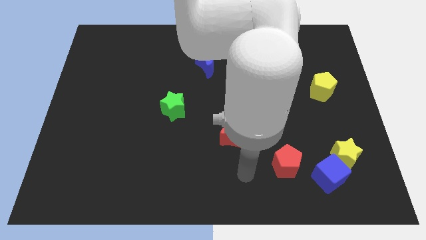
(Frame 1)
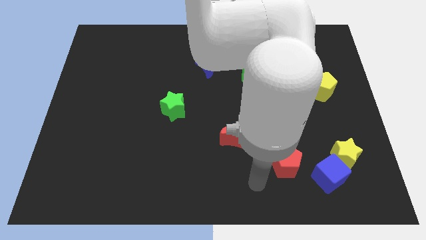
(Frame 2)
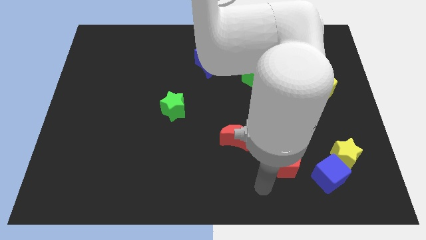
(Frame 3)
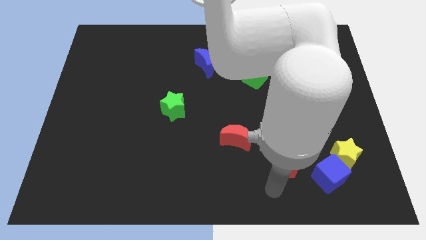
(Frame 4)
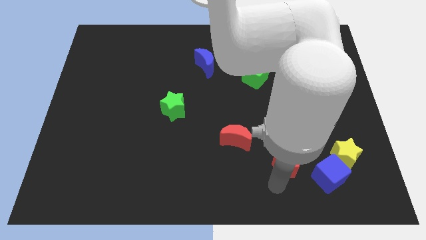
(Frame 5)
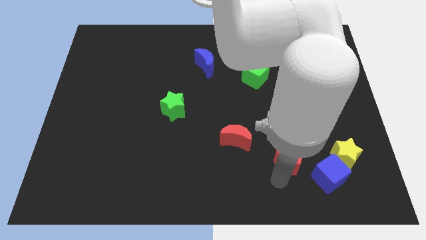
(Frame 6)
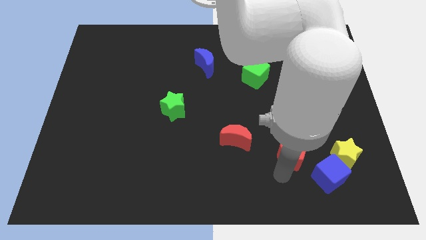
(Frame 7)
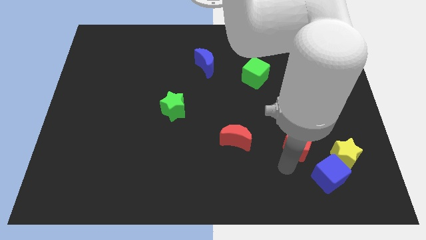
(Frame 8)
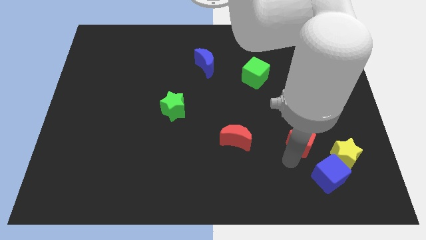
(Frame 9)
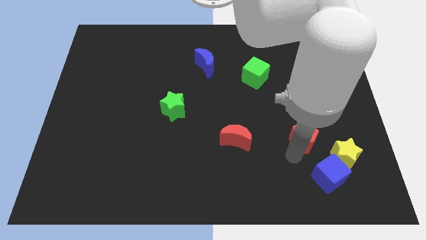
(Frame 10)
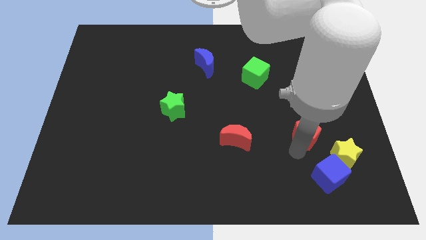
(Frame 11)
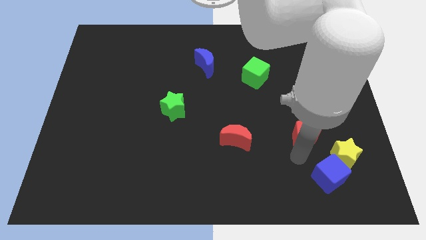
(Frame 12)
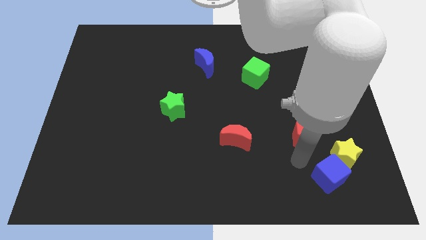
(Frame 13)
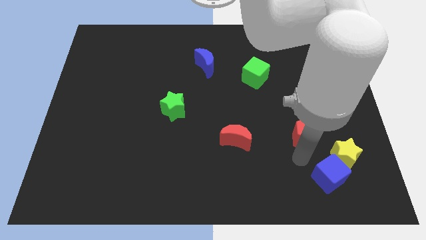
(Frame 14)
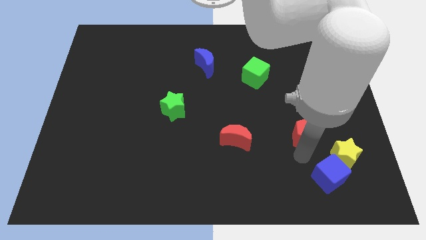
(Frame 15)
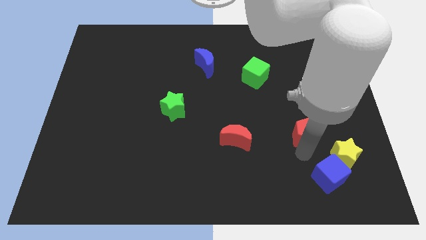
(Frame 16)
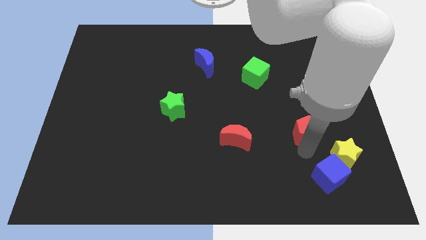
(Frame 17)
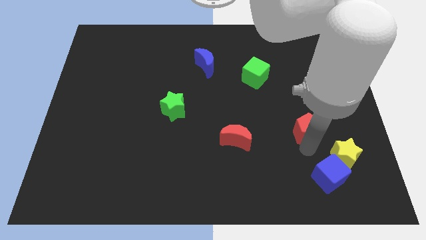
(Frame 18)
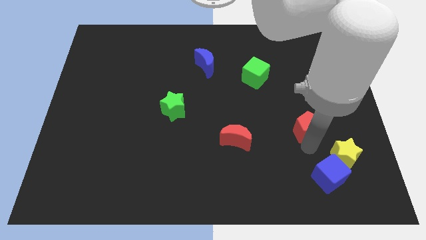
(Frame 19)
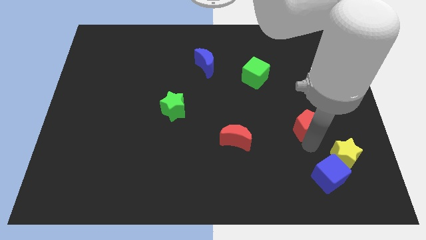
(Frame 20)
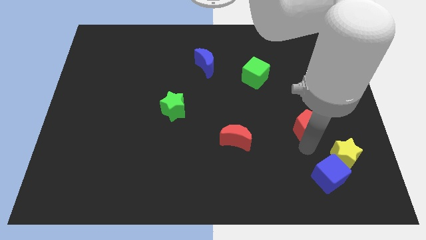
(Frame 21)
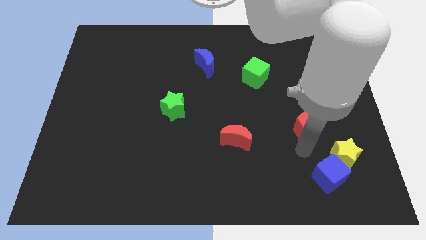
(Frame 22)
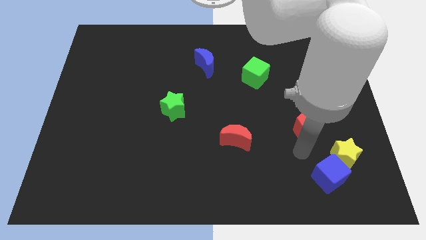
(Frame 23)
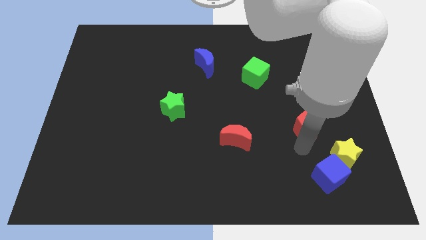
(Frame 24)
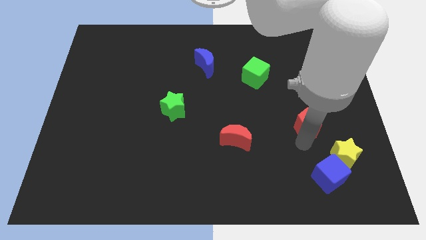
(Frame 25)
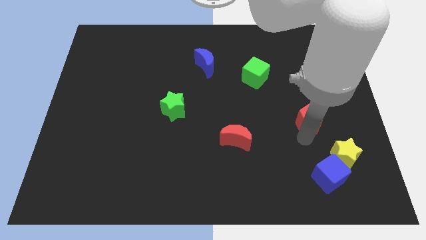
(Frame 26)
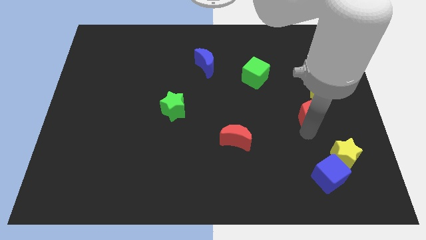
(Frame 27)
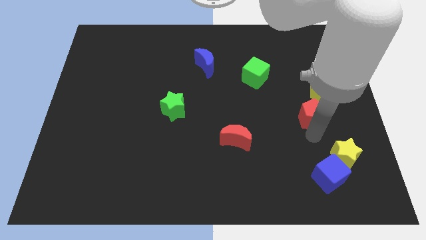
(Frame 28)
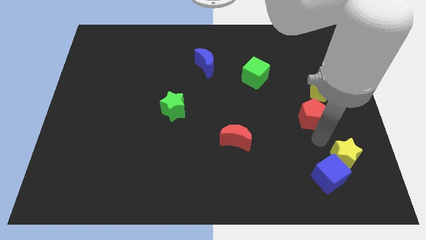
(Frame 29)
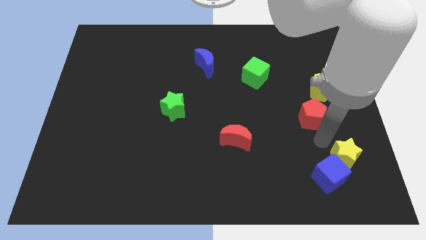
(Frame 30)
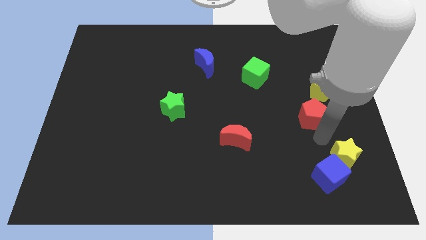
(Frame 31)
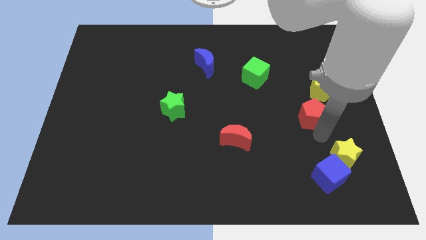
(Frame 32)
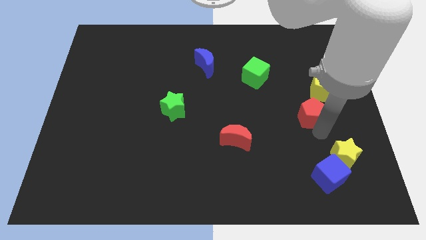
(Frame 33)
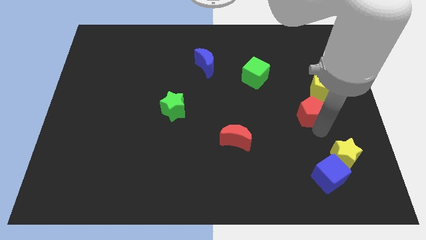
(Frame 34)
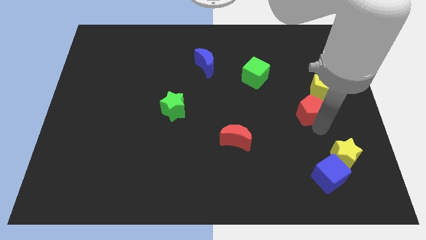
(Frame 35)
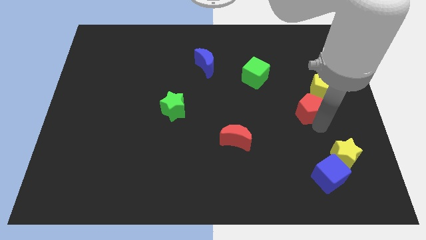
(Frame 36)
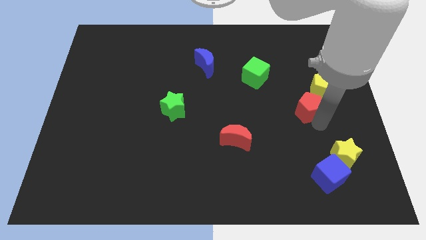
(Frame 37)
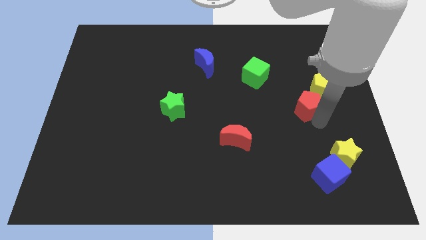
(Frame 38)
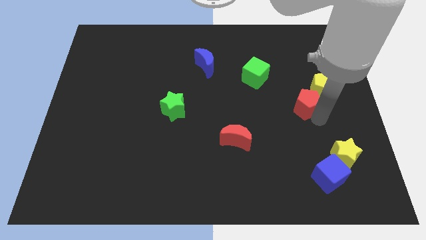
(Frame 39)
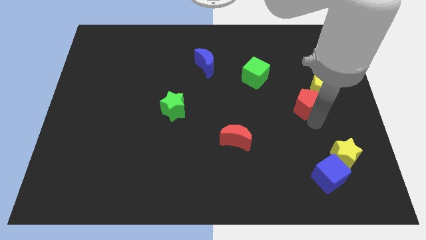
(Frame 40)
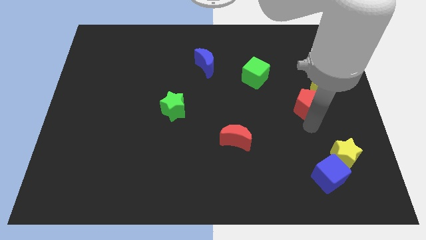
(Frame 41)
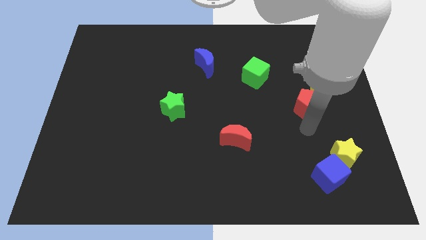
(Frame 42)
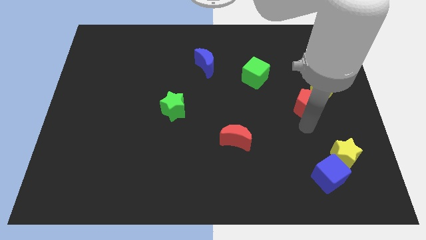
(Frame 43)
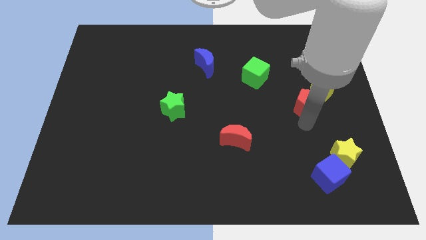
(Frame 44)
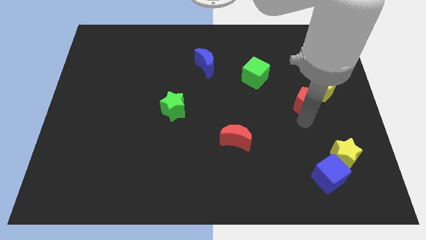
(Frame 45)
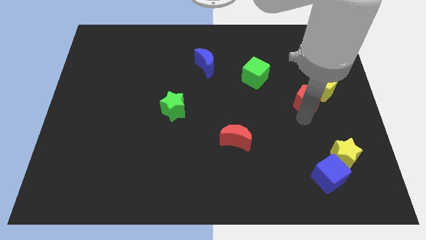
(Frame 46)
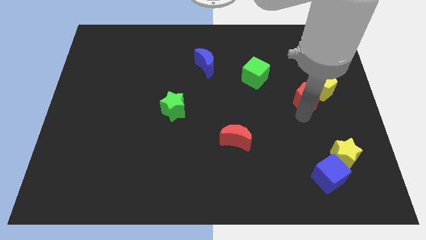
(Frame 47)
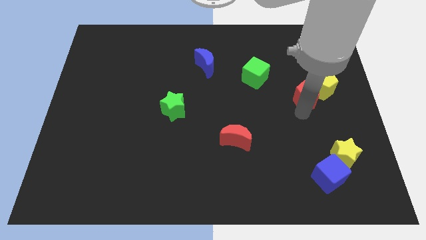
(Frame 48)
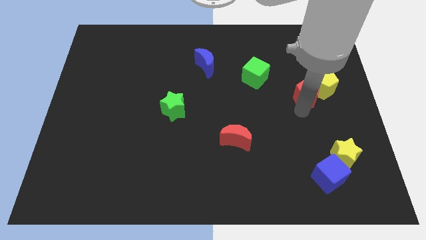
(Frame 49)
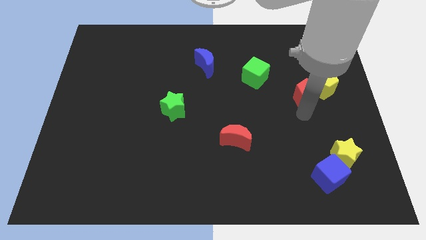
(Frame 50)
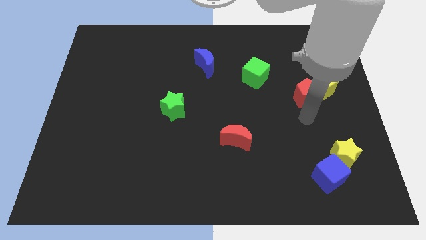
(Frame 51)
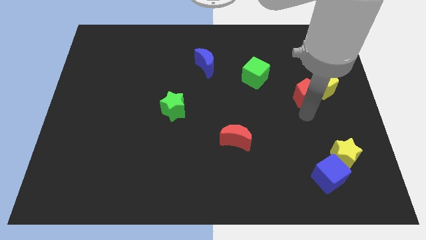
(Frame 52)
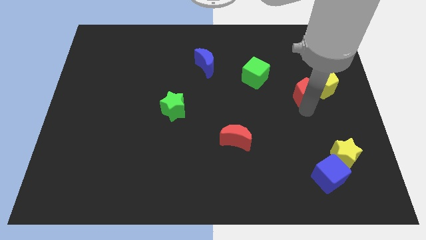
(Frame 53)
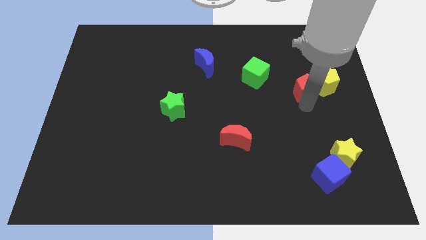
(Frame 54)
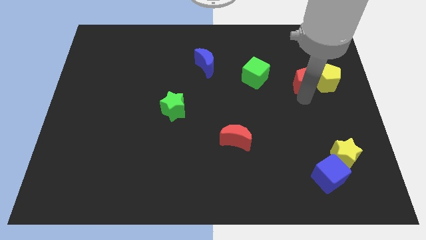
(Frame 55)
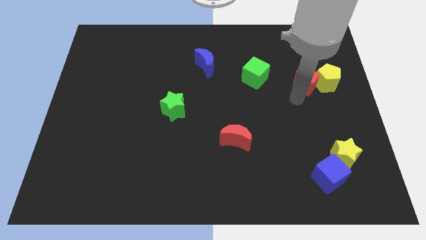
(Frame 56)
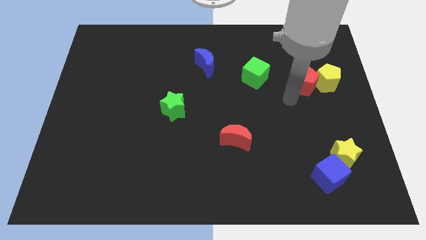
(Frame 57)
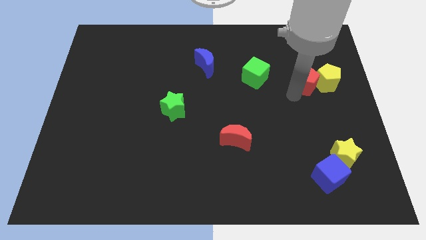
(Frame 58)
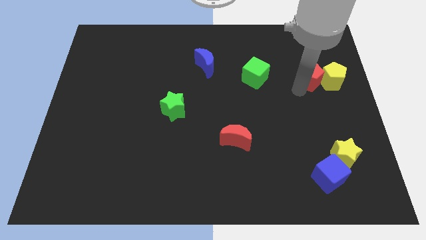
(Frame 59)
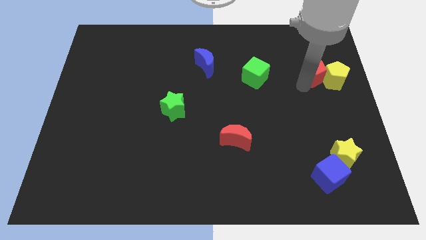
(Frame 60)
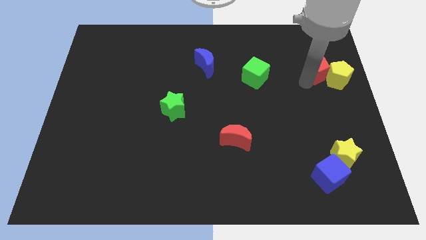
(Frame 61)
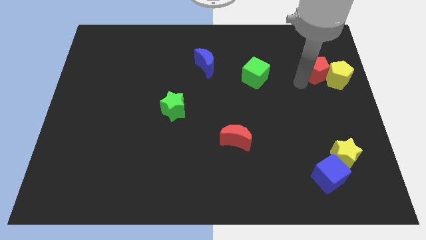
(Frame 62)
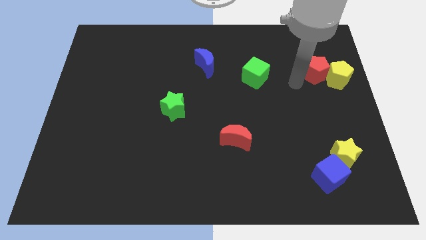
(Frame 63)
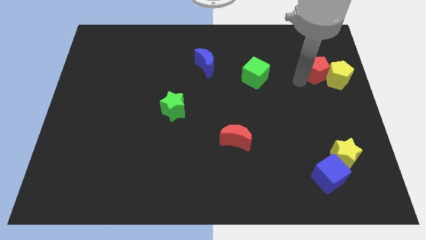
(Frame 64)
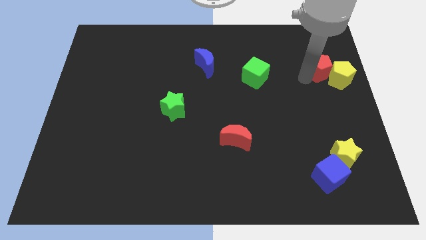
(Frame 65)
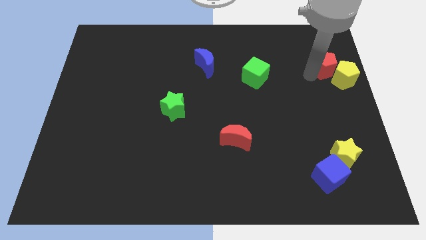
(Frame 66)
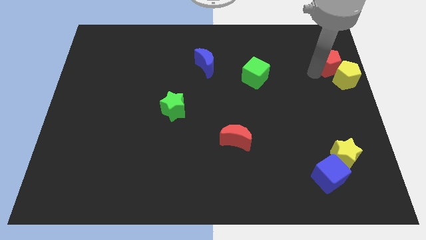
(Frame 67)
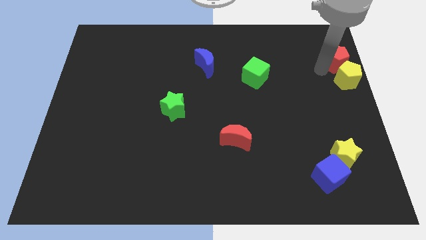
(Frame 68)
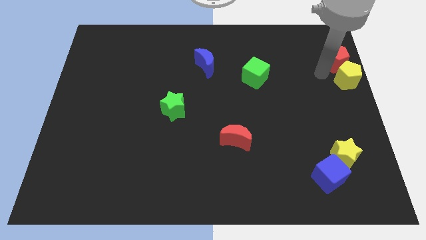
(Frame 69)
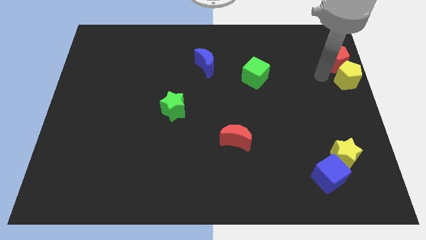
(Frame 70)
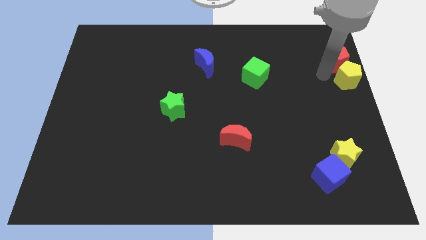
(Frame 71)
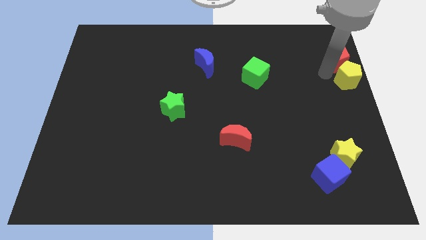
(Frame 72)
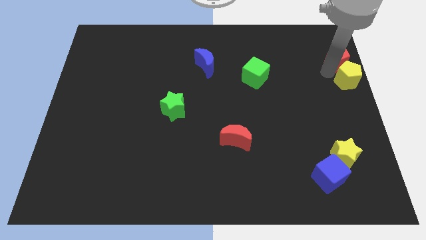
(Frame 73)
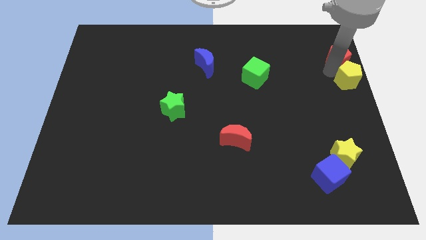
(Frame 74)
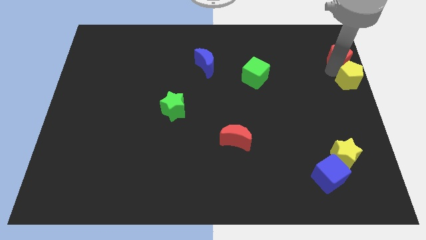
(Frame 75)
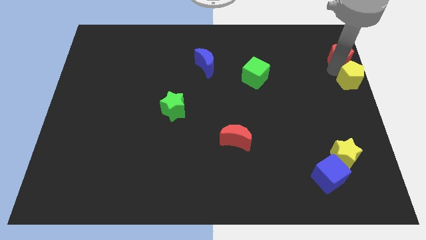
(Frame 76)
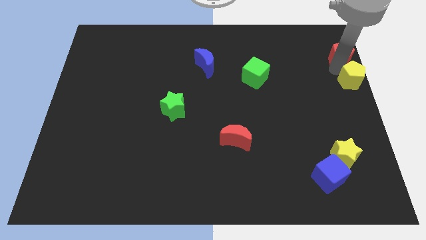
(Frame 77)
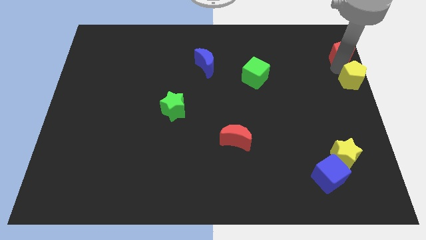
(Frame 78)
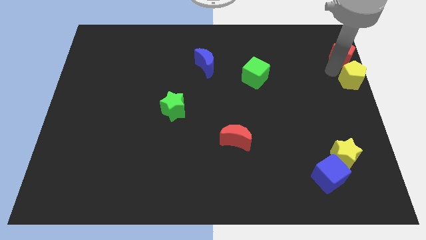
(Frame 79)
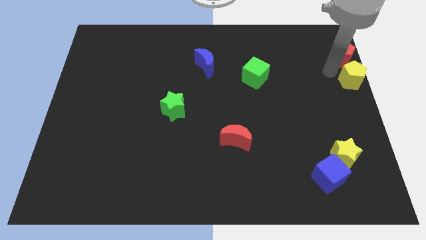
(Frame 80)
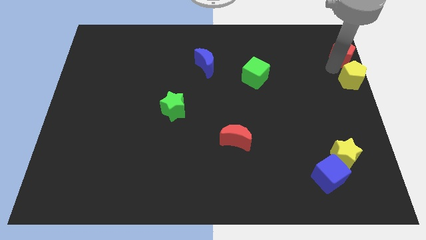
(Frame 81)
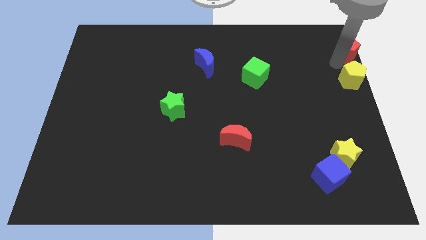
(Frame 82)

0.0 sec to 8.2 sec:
move the red pentagon to the top right
